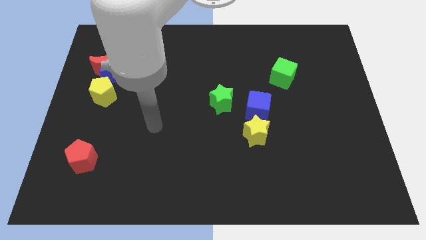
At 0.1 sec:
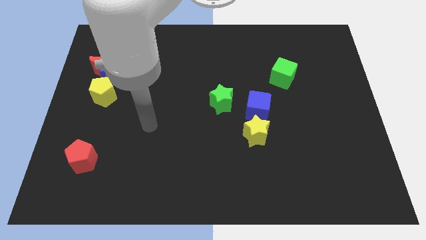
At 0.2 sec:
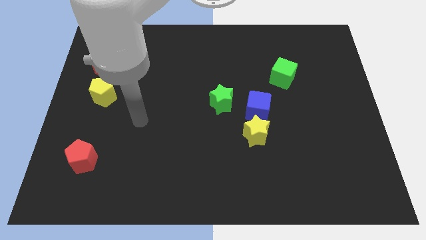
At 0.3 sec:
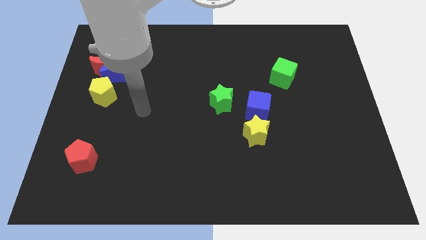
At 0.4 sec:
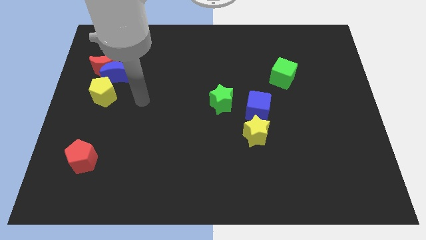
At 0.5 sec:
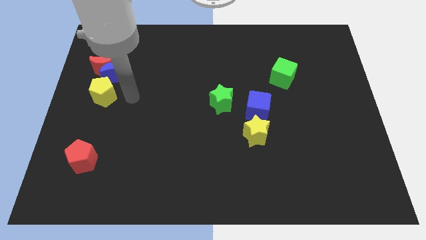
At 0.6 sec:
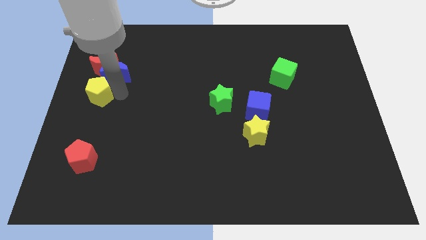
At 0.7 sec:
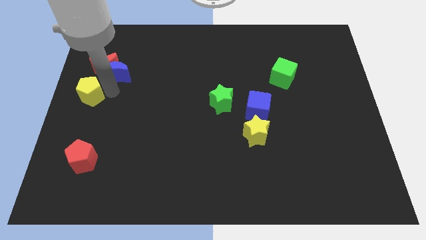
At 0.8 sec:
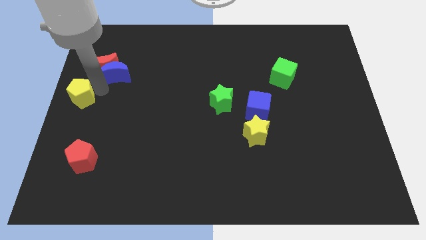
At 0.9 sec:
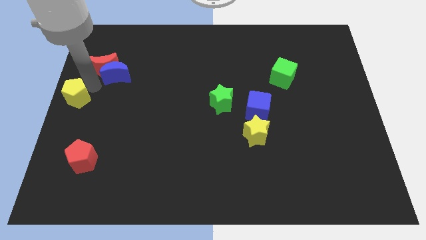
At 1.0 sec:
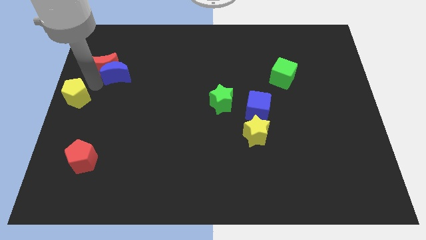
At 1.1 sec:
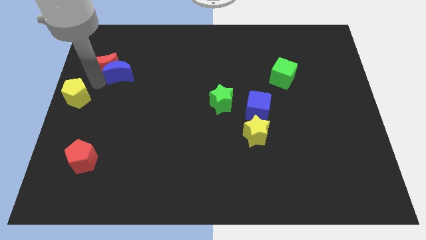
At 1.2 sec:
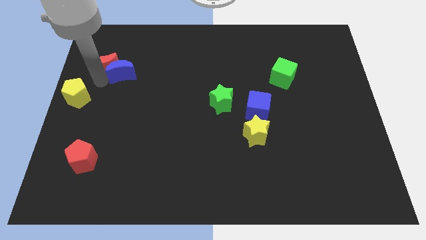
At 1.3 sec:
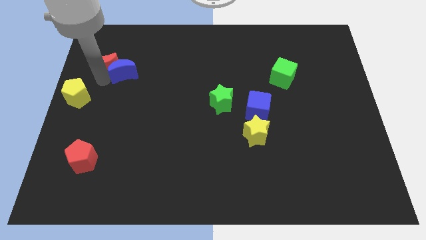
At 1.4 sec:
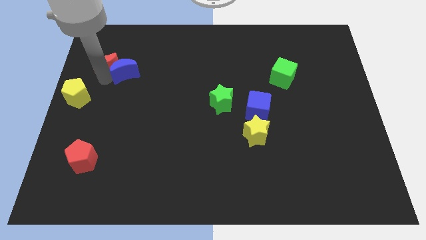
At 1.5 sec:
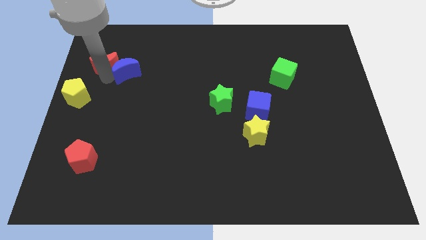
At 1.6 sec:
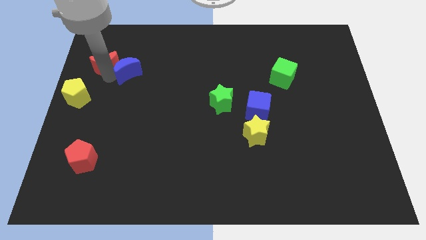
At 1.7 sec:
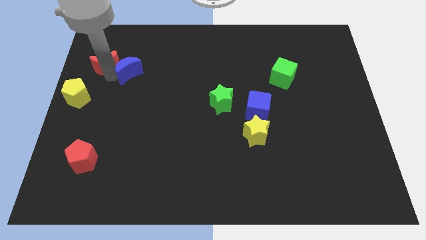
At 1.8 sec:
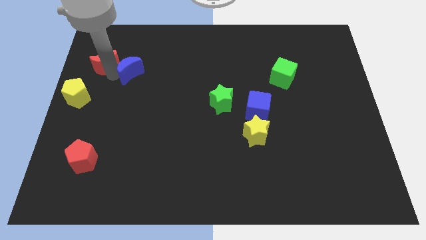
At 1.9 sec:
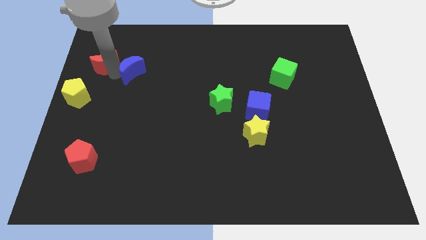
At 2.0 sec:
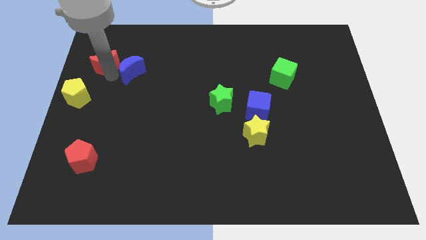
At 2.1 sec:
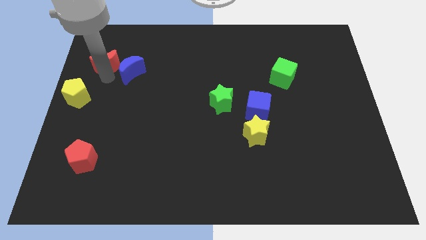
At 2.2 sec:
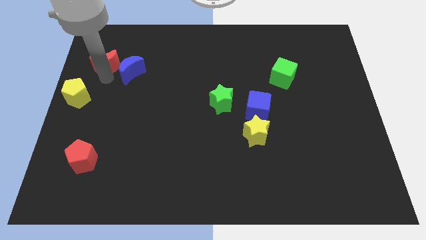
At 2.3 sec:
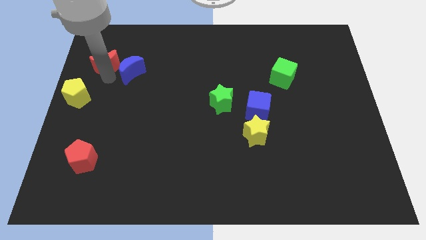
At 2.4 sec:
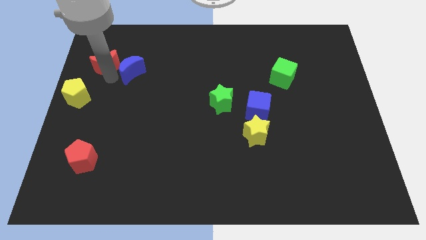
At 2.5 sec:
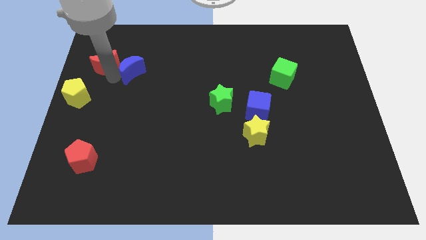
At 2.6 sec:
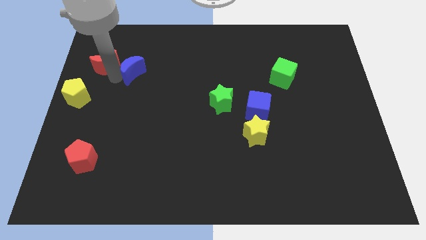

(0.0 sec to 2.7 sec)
separate the blue moon from the red moon and yellow pentagon

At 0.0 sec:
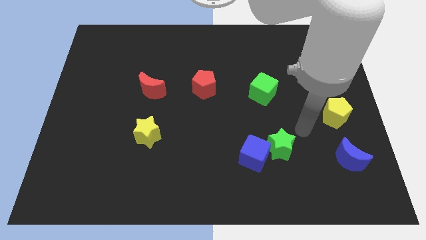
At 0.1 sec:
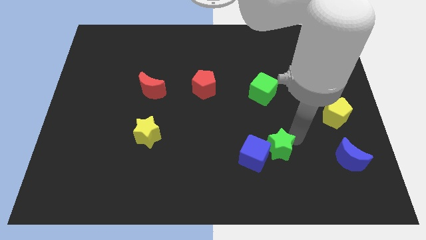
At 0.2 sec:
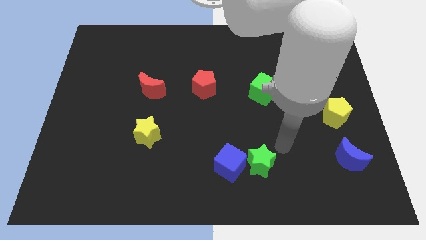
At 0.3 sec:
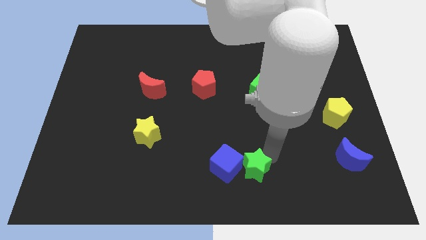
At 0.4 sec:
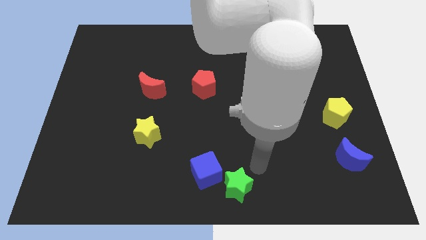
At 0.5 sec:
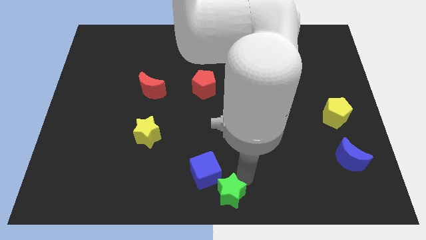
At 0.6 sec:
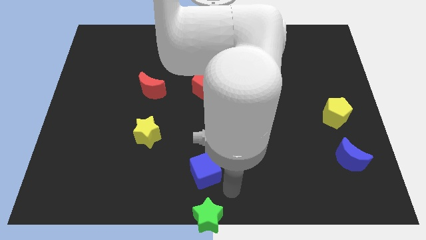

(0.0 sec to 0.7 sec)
move the blue cube away from the green star

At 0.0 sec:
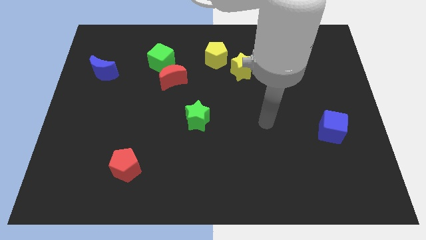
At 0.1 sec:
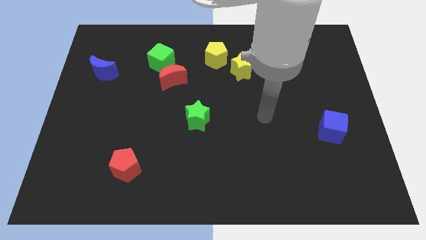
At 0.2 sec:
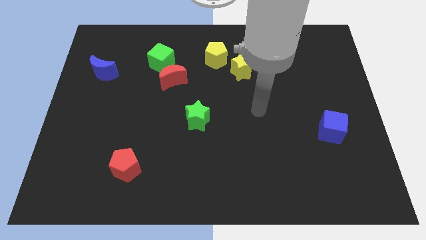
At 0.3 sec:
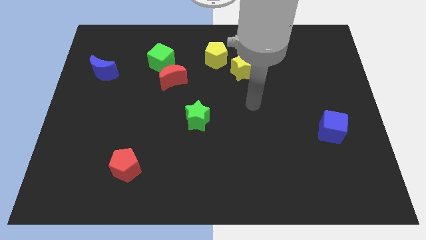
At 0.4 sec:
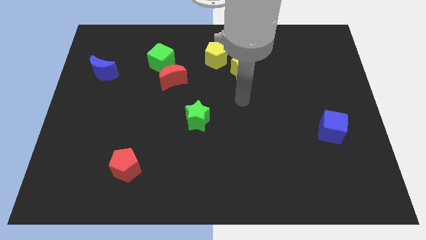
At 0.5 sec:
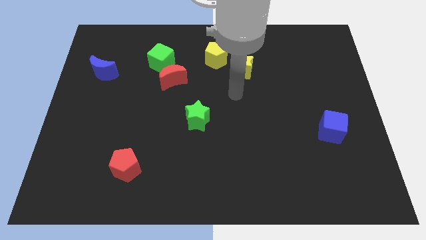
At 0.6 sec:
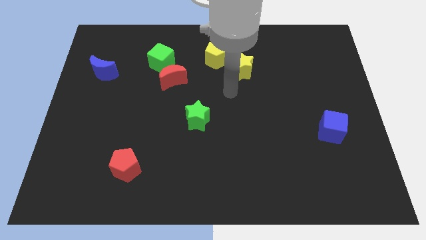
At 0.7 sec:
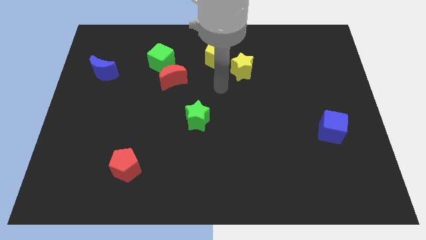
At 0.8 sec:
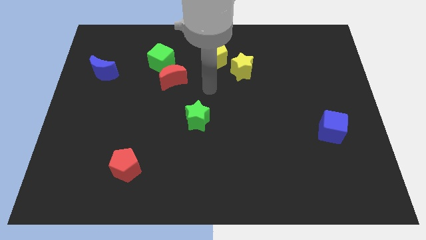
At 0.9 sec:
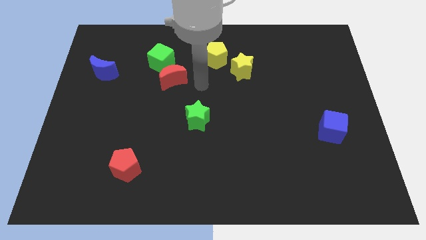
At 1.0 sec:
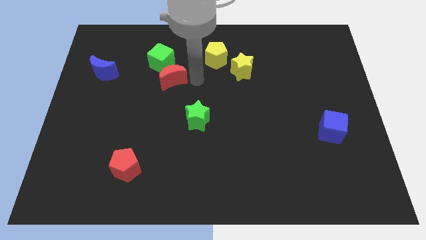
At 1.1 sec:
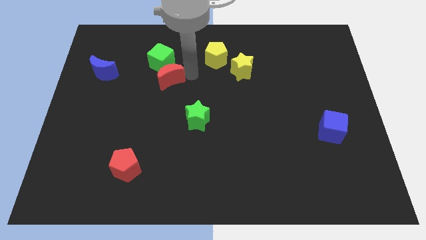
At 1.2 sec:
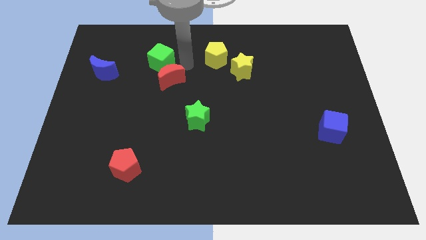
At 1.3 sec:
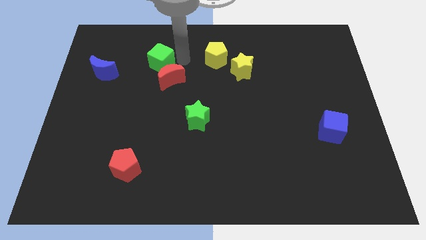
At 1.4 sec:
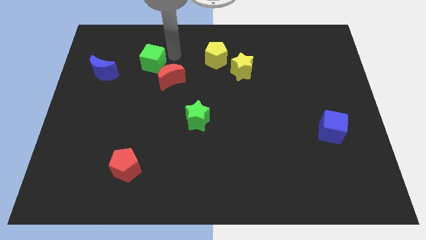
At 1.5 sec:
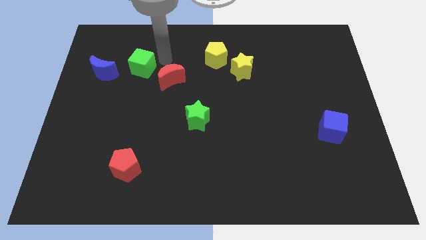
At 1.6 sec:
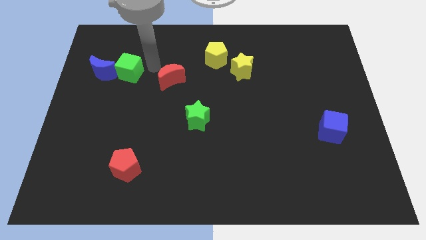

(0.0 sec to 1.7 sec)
separate the red moon from the green cube

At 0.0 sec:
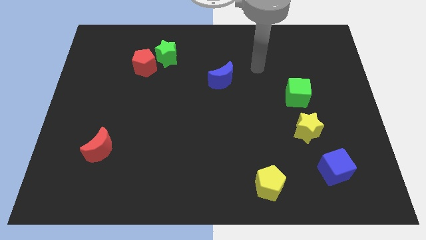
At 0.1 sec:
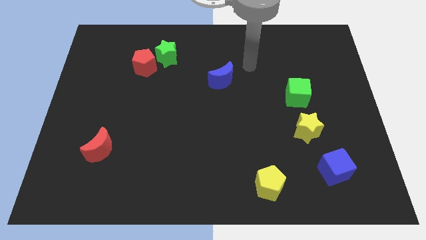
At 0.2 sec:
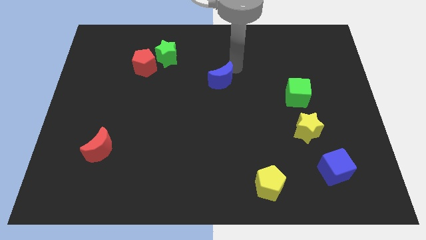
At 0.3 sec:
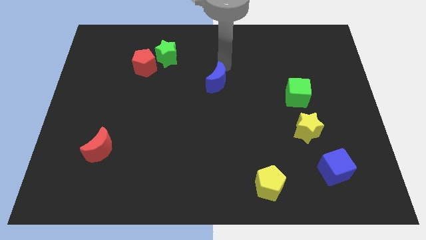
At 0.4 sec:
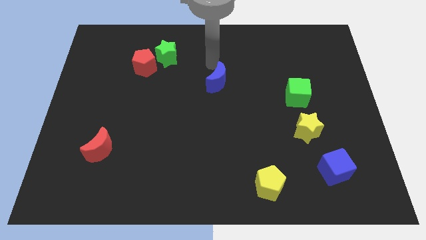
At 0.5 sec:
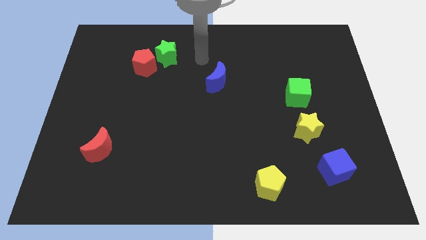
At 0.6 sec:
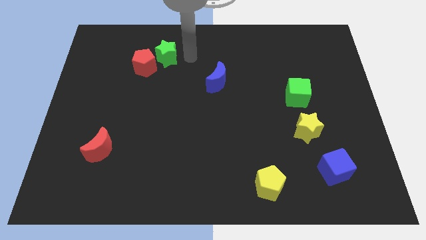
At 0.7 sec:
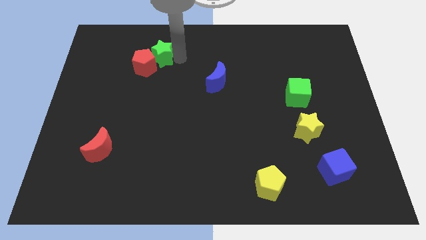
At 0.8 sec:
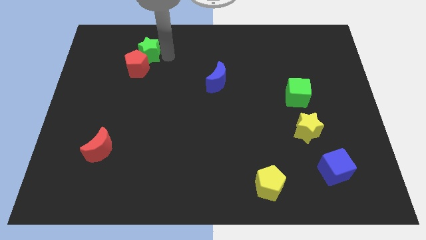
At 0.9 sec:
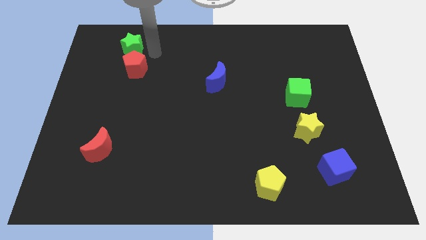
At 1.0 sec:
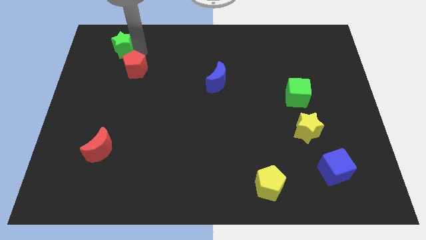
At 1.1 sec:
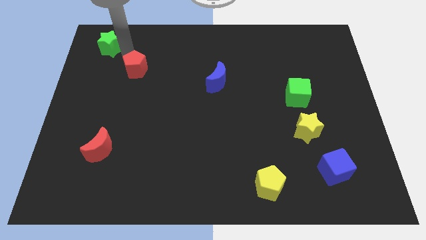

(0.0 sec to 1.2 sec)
move the red pentagon away from the green star

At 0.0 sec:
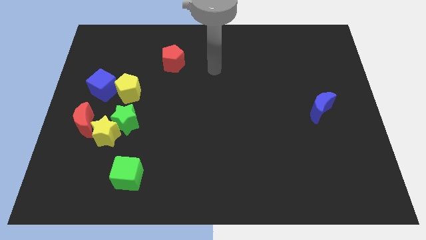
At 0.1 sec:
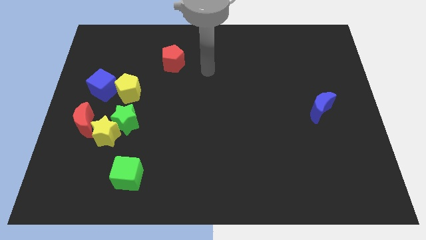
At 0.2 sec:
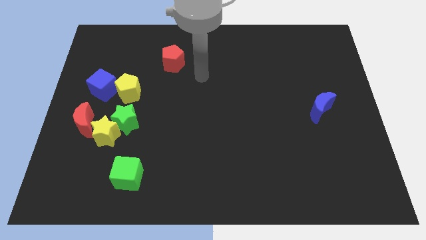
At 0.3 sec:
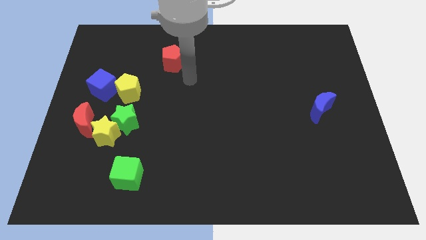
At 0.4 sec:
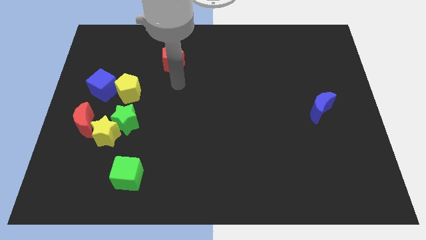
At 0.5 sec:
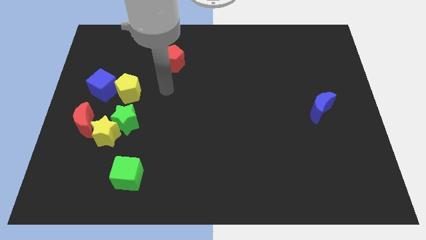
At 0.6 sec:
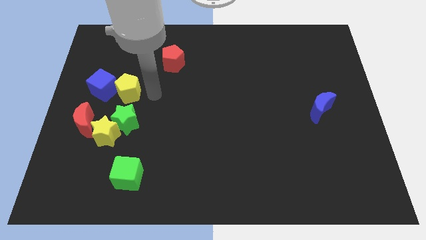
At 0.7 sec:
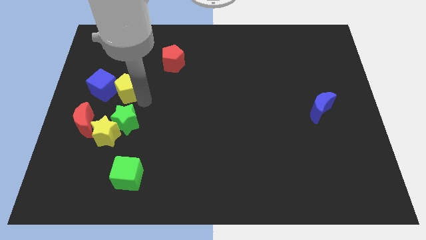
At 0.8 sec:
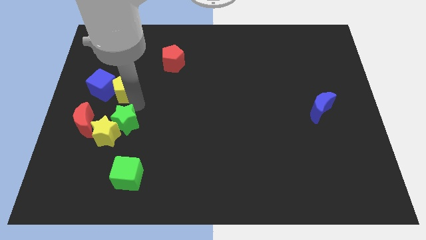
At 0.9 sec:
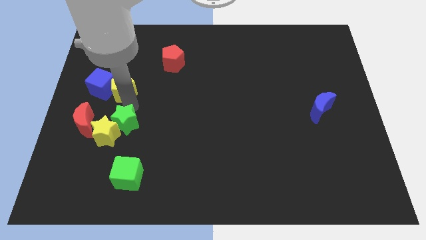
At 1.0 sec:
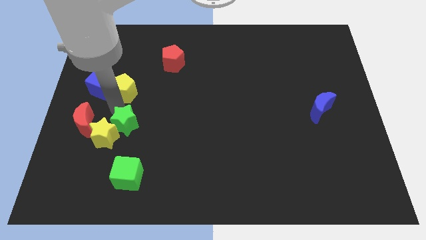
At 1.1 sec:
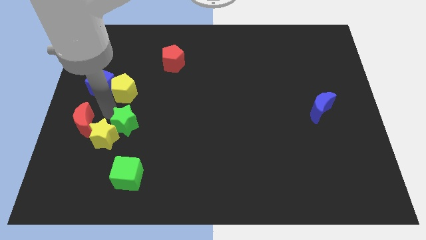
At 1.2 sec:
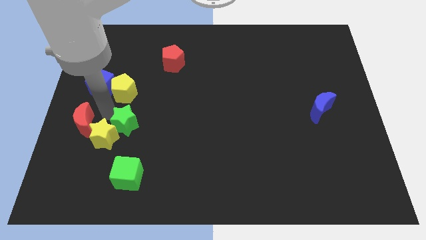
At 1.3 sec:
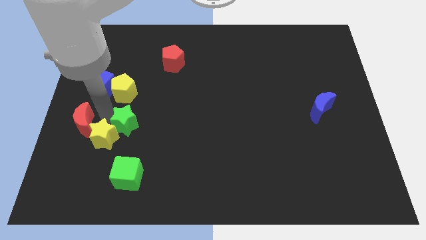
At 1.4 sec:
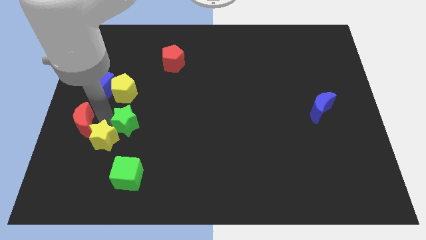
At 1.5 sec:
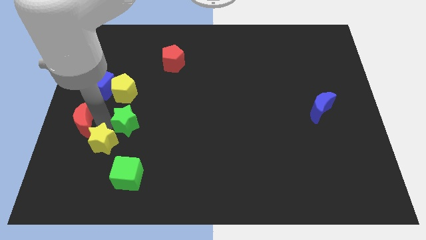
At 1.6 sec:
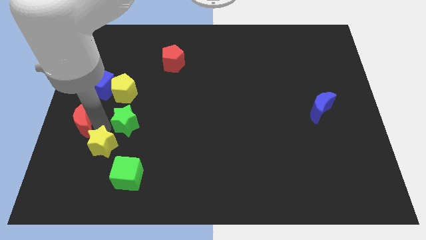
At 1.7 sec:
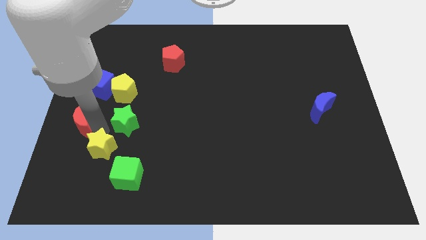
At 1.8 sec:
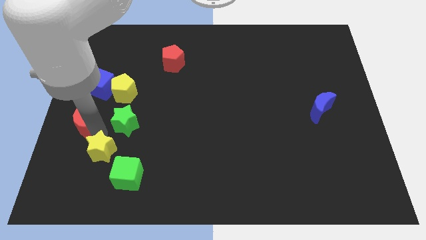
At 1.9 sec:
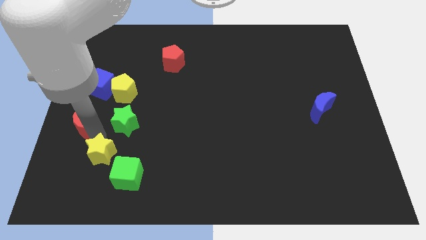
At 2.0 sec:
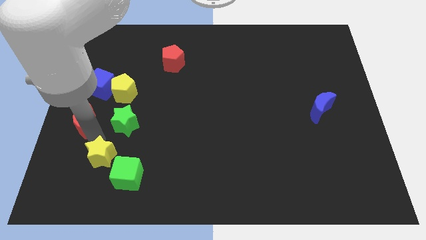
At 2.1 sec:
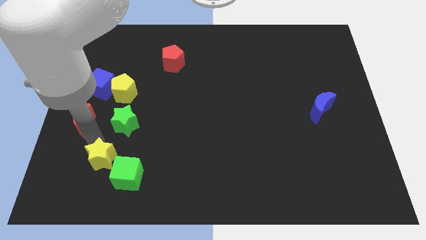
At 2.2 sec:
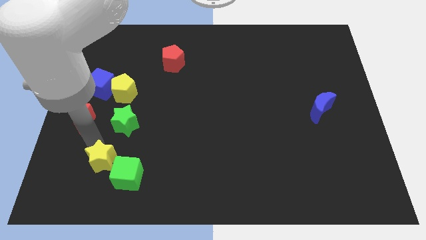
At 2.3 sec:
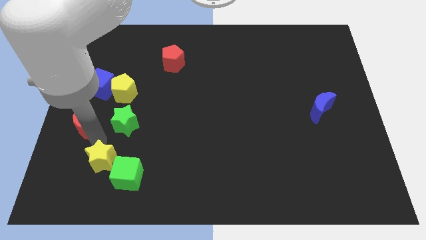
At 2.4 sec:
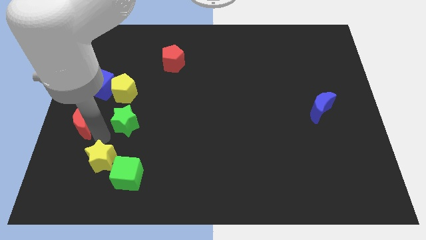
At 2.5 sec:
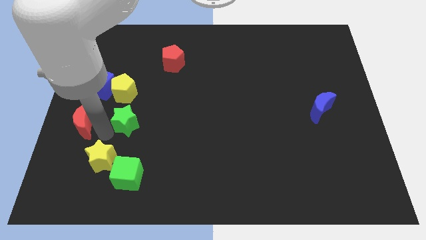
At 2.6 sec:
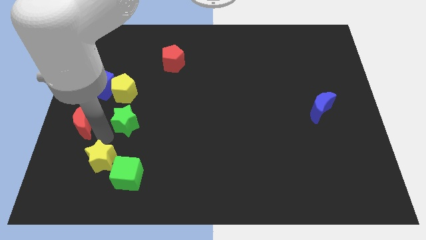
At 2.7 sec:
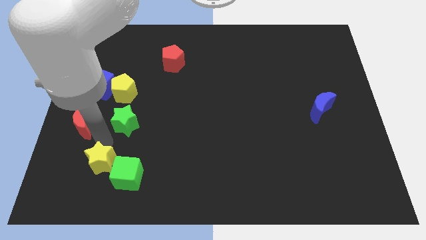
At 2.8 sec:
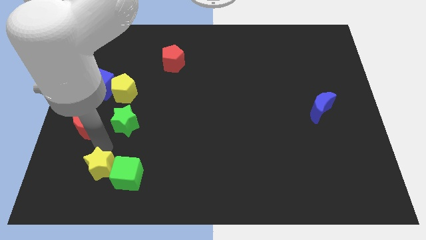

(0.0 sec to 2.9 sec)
separate the yellow star from the green star and red moon
